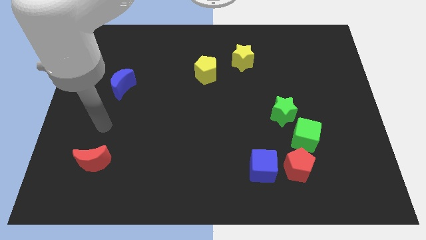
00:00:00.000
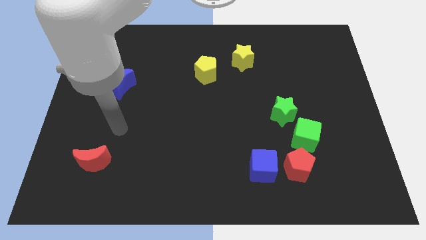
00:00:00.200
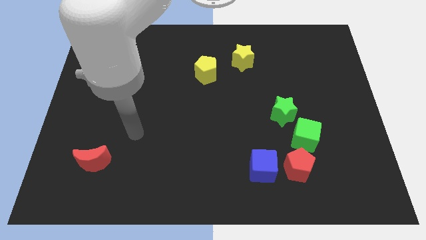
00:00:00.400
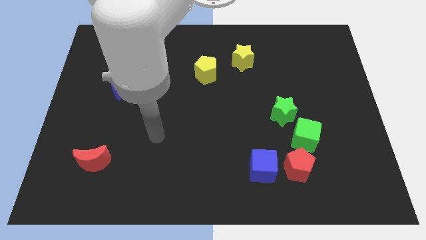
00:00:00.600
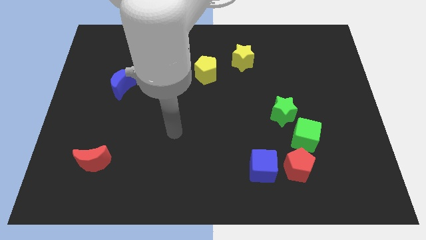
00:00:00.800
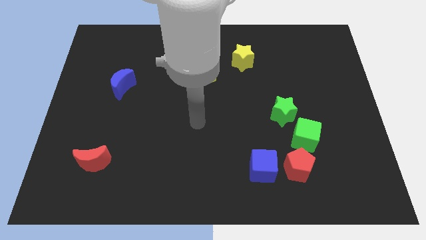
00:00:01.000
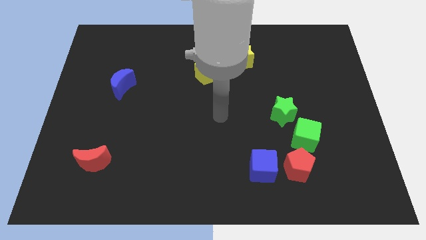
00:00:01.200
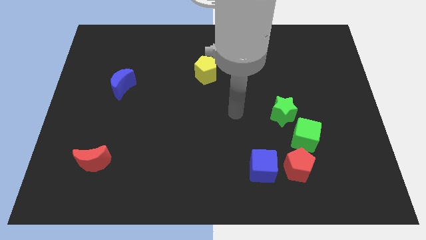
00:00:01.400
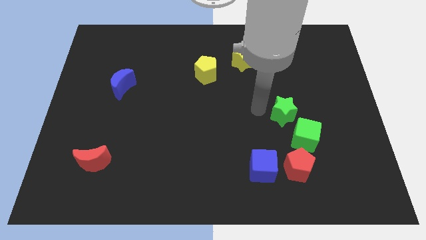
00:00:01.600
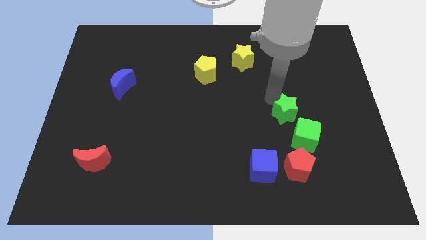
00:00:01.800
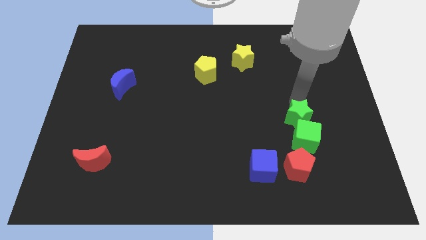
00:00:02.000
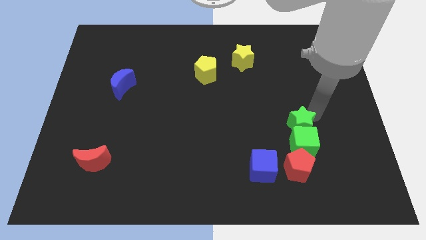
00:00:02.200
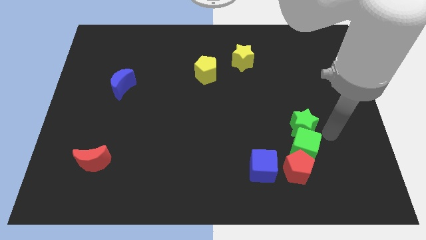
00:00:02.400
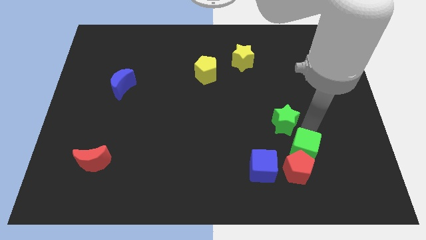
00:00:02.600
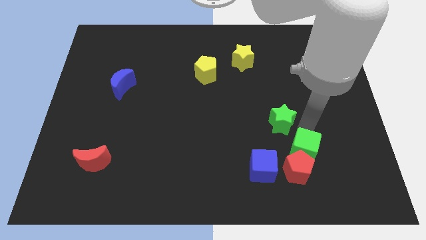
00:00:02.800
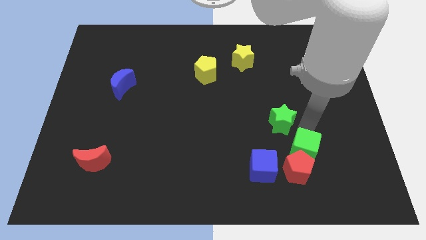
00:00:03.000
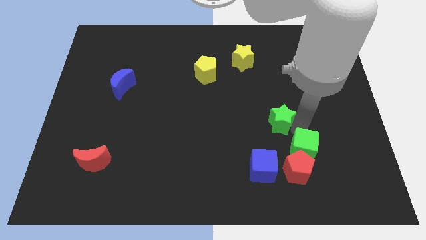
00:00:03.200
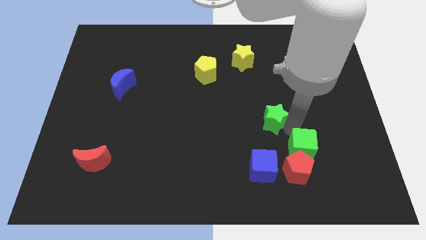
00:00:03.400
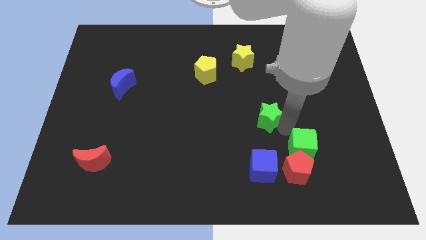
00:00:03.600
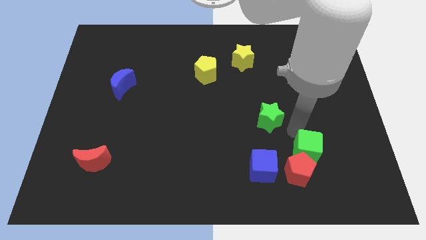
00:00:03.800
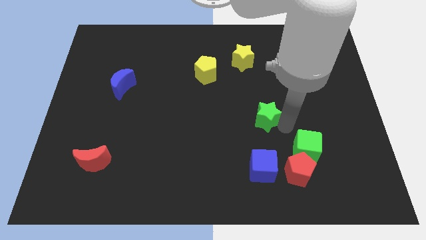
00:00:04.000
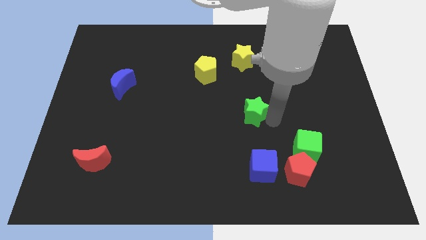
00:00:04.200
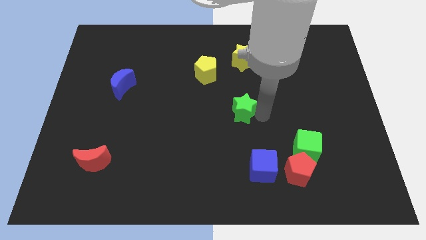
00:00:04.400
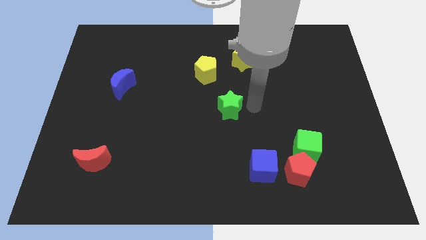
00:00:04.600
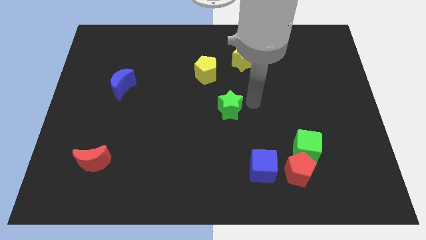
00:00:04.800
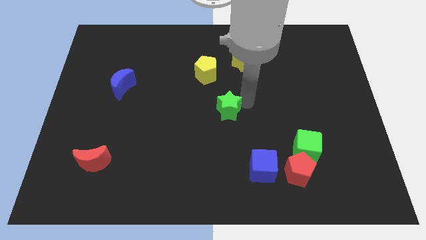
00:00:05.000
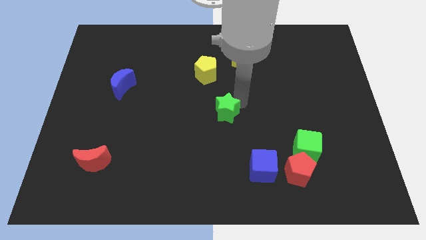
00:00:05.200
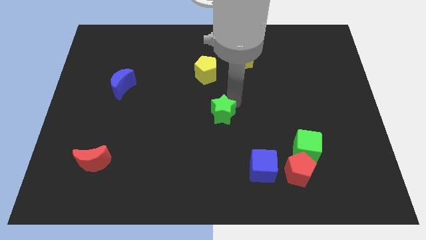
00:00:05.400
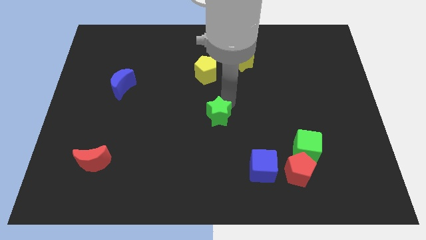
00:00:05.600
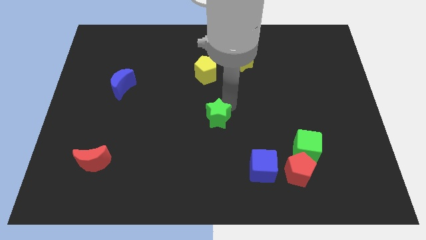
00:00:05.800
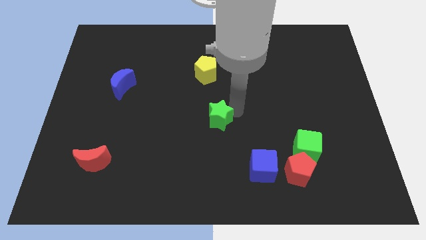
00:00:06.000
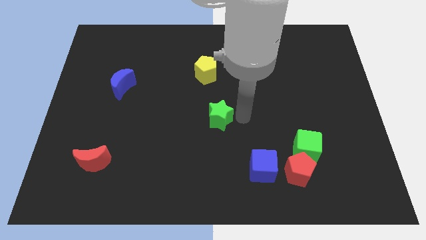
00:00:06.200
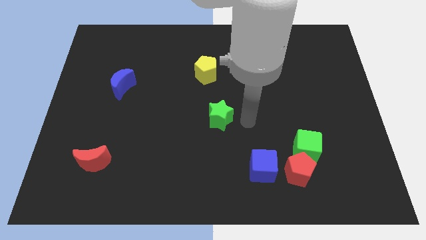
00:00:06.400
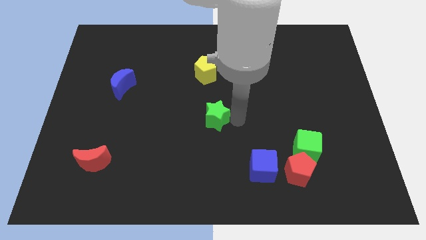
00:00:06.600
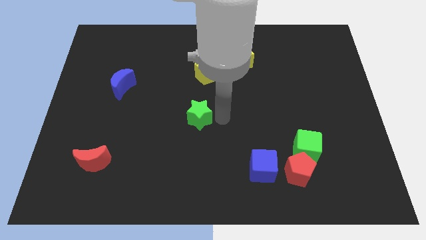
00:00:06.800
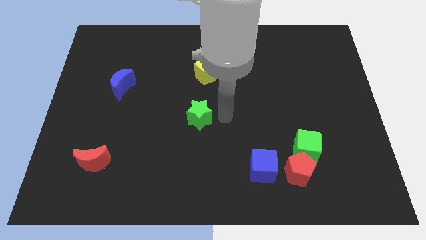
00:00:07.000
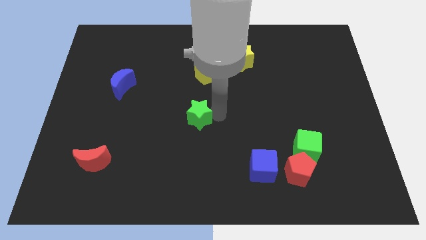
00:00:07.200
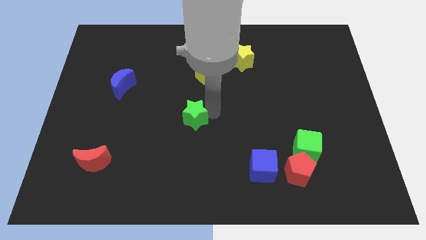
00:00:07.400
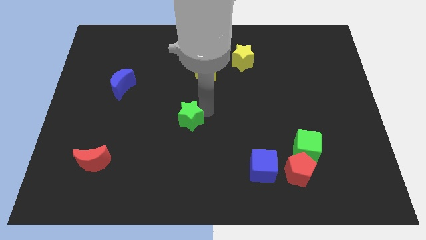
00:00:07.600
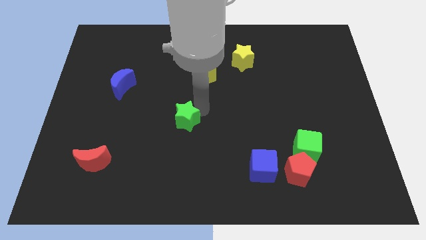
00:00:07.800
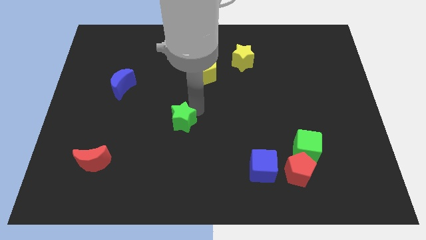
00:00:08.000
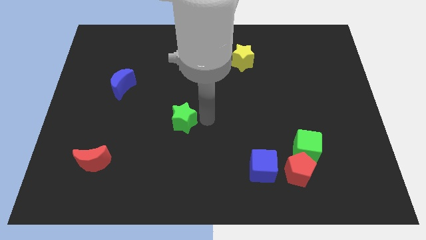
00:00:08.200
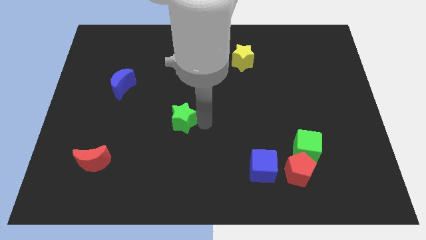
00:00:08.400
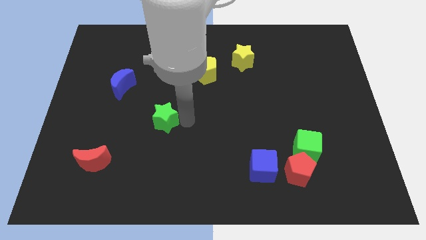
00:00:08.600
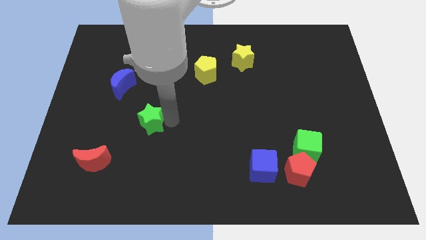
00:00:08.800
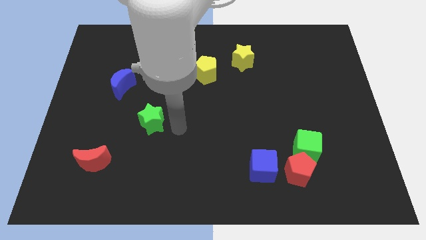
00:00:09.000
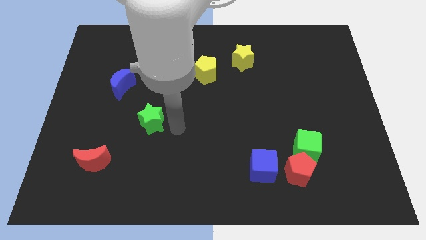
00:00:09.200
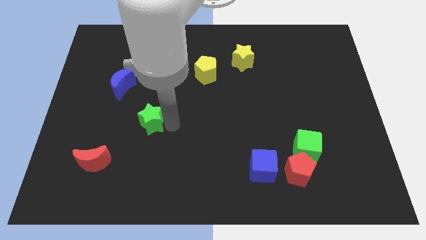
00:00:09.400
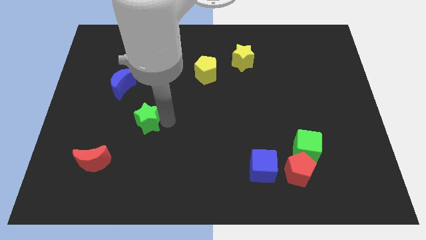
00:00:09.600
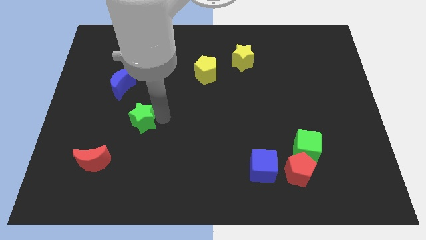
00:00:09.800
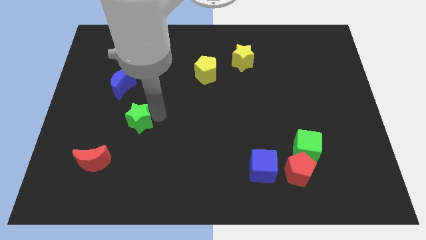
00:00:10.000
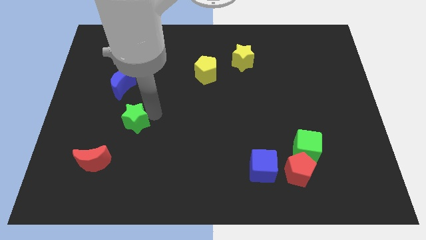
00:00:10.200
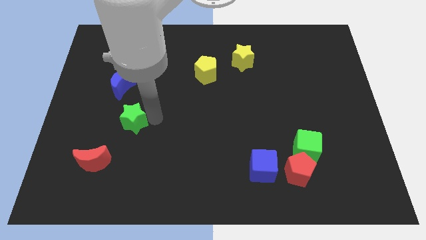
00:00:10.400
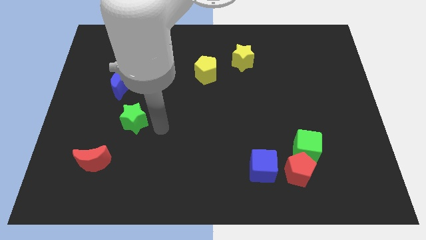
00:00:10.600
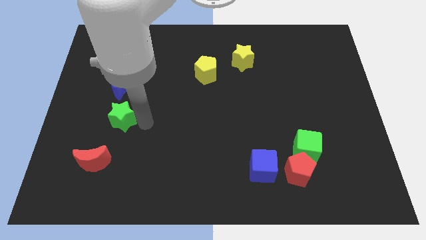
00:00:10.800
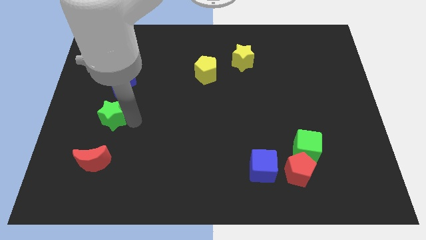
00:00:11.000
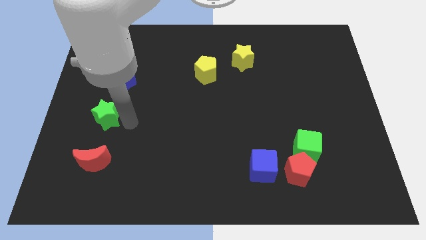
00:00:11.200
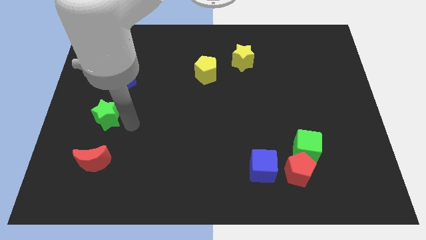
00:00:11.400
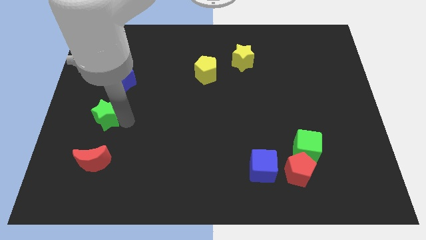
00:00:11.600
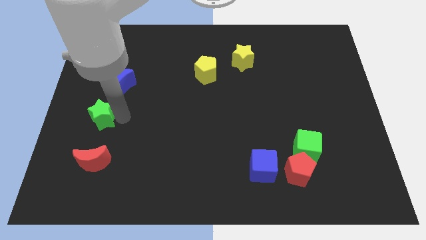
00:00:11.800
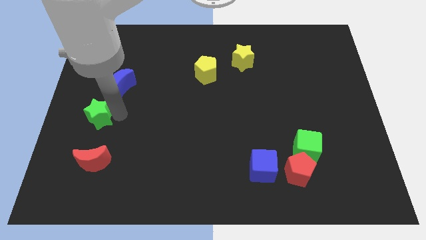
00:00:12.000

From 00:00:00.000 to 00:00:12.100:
push the green star to the left side of the board
